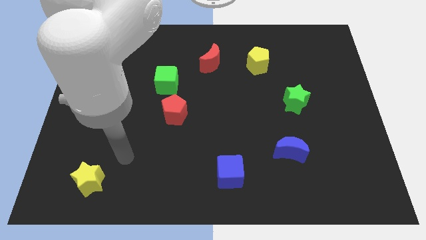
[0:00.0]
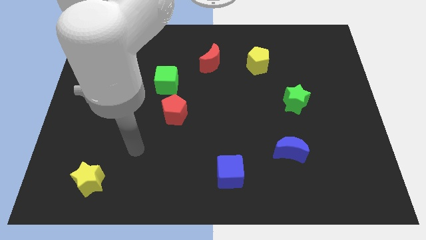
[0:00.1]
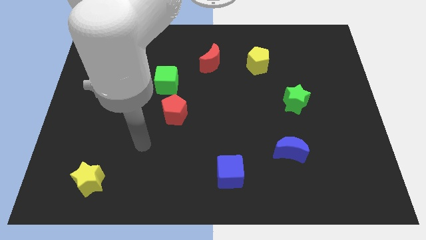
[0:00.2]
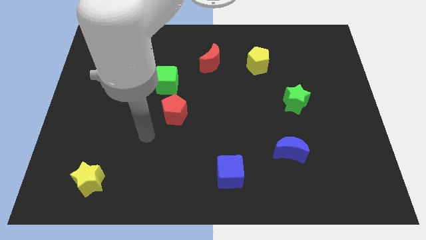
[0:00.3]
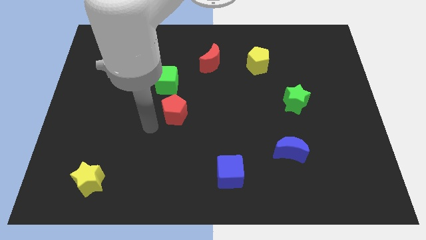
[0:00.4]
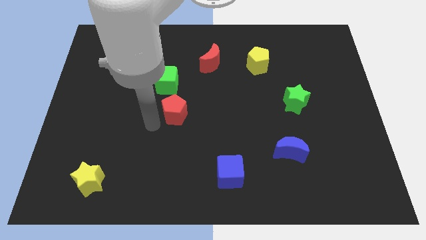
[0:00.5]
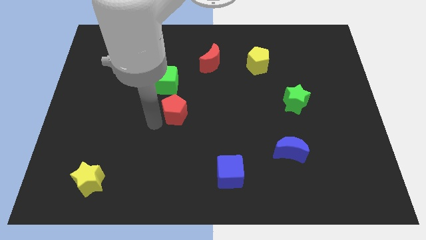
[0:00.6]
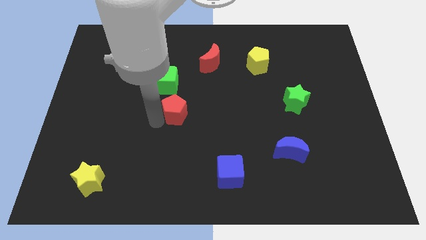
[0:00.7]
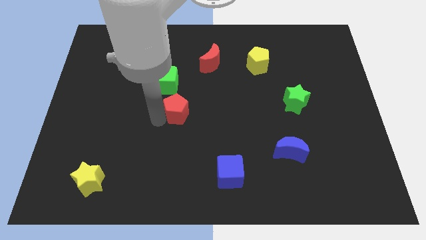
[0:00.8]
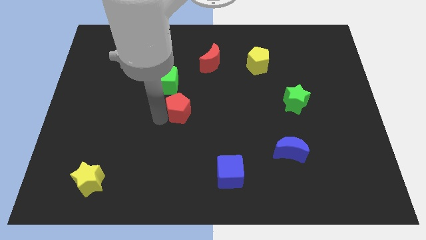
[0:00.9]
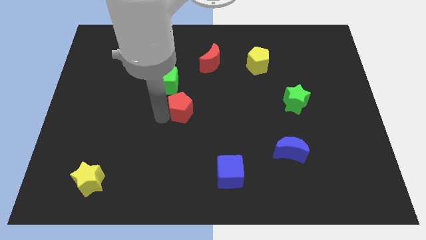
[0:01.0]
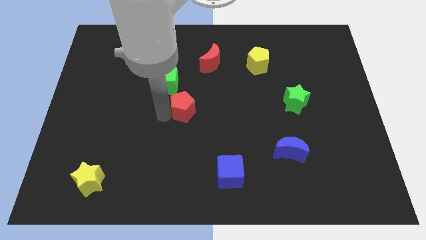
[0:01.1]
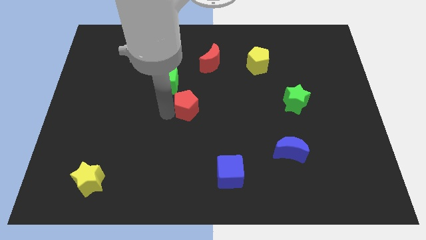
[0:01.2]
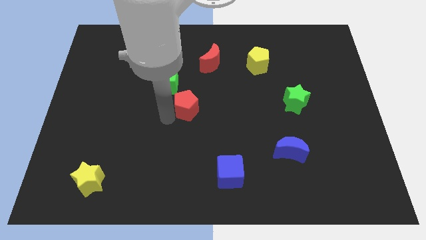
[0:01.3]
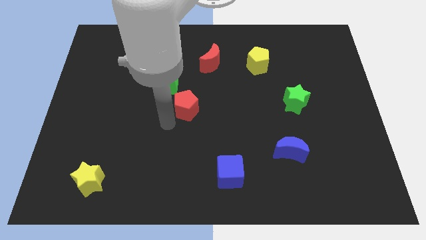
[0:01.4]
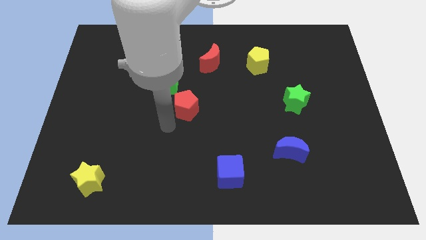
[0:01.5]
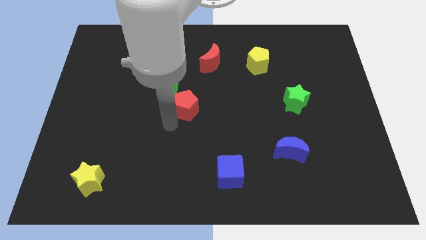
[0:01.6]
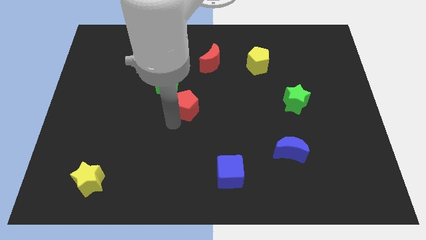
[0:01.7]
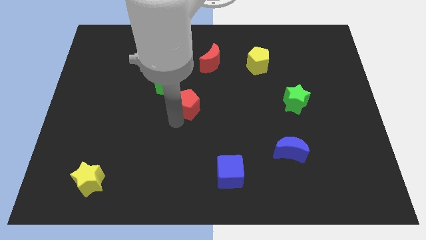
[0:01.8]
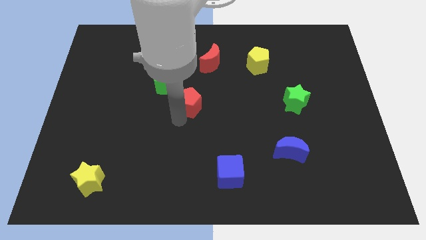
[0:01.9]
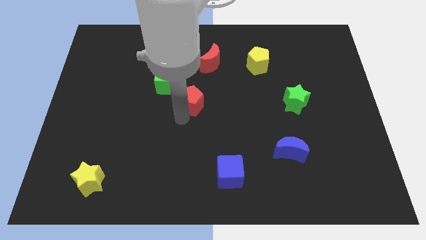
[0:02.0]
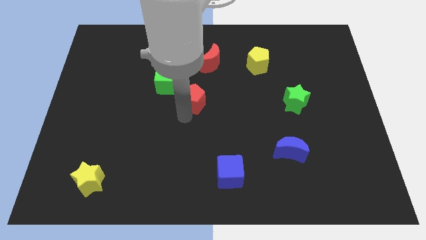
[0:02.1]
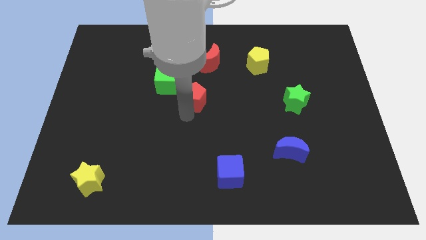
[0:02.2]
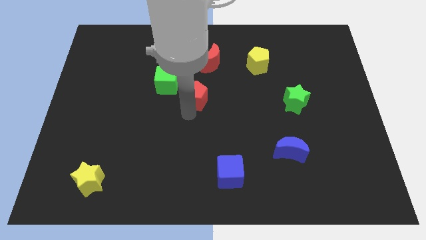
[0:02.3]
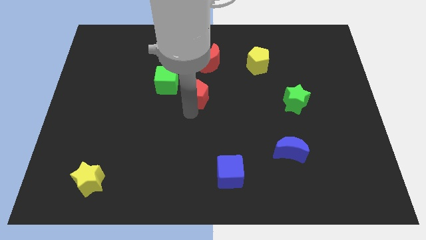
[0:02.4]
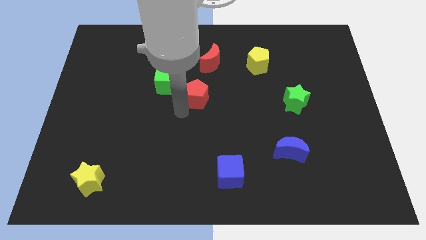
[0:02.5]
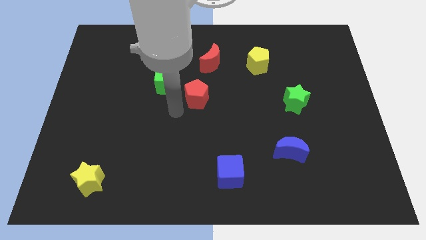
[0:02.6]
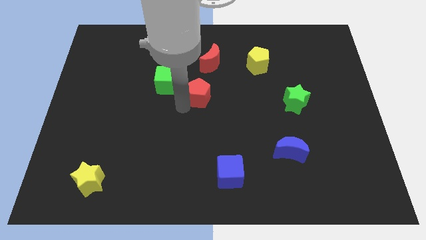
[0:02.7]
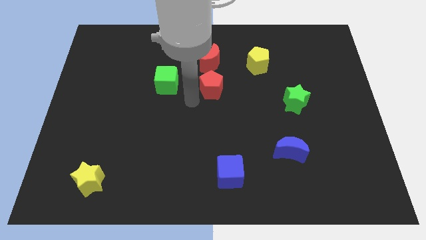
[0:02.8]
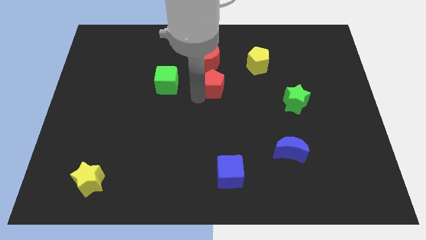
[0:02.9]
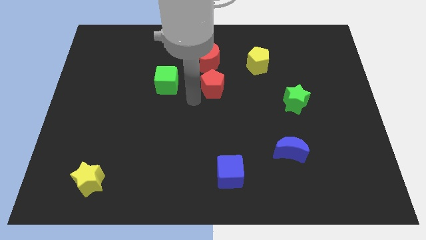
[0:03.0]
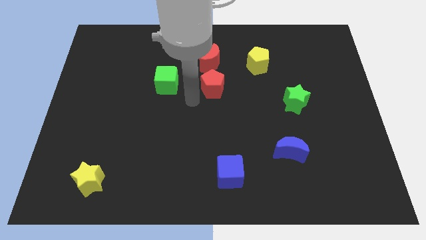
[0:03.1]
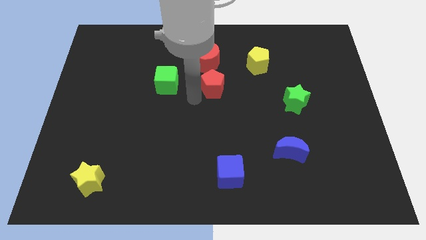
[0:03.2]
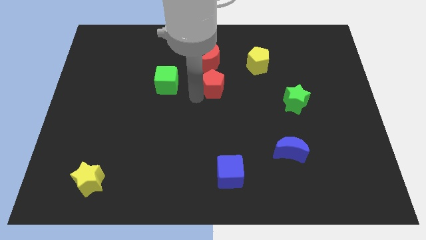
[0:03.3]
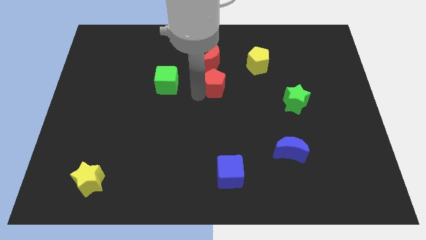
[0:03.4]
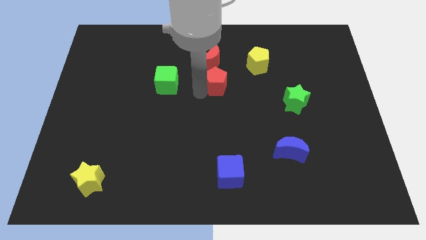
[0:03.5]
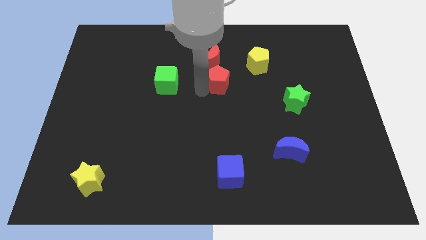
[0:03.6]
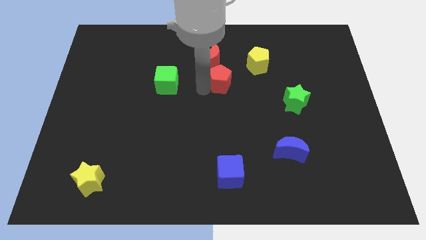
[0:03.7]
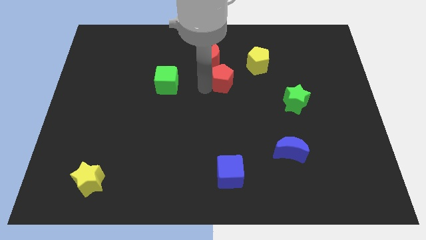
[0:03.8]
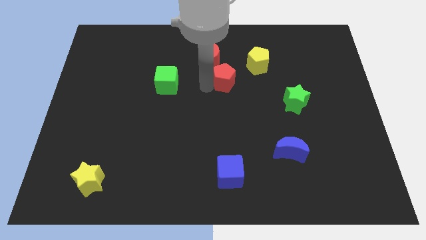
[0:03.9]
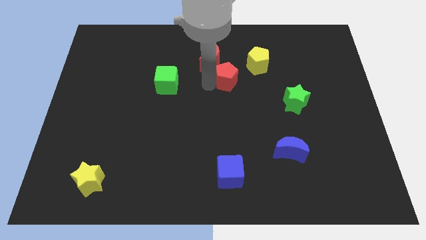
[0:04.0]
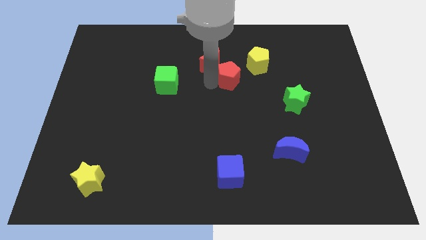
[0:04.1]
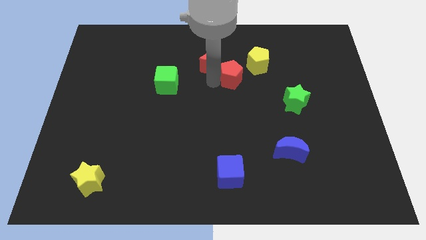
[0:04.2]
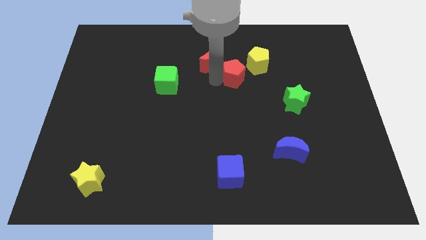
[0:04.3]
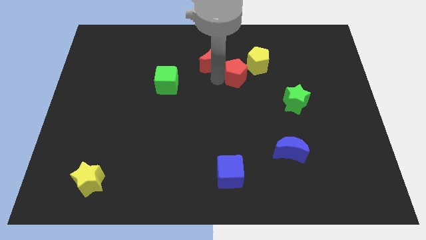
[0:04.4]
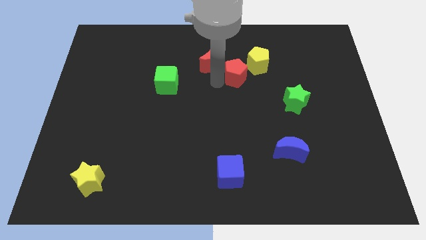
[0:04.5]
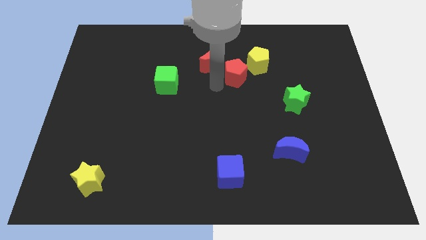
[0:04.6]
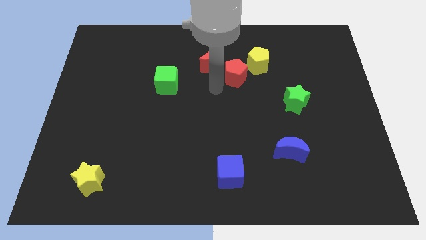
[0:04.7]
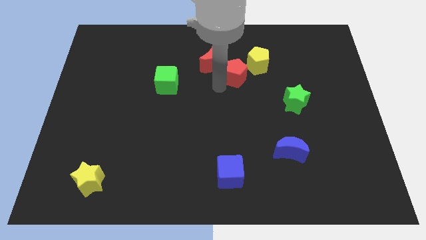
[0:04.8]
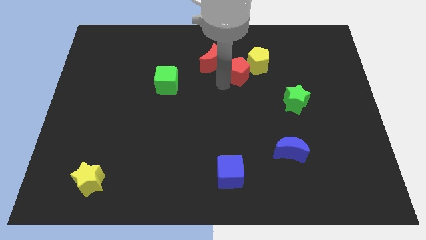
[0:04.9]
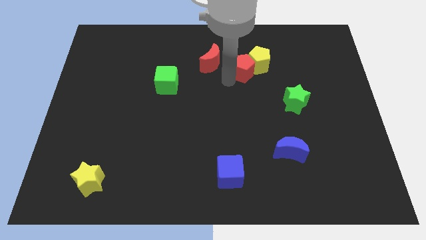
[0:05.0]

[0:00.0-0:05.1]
slide the red pentagon close to the yellow pentagon

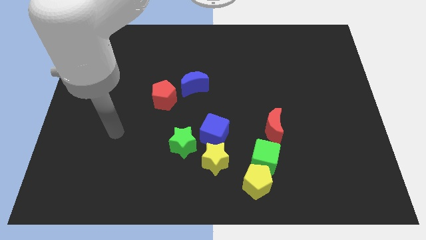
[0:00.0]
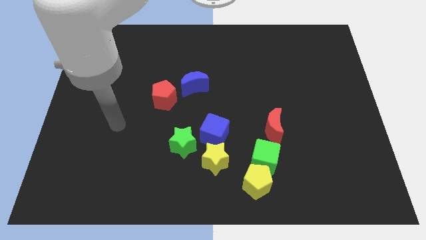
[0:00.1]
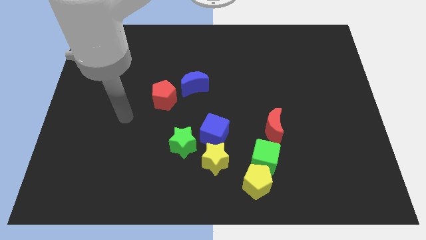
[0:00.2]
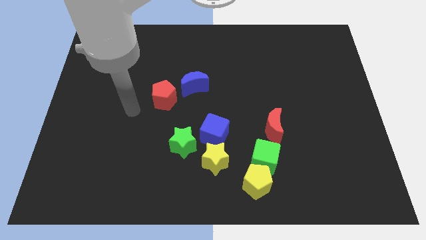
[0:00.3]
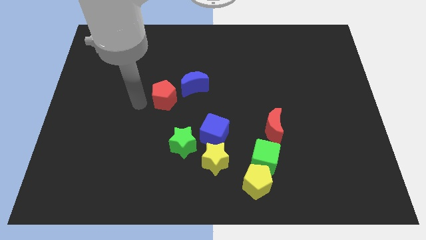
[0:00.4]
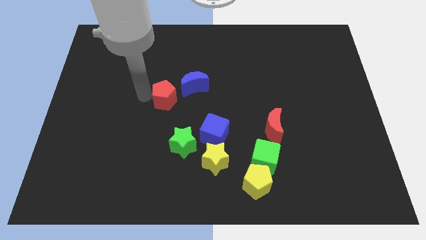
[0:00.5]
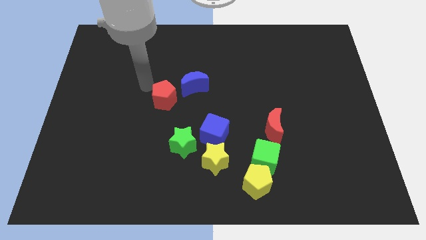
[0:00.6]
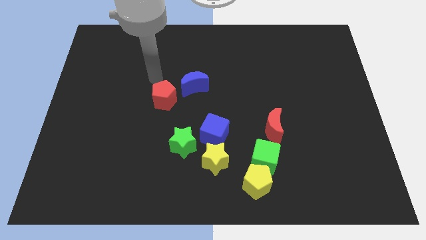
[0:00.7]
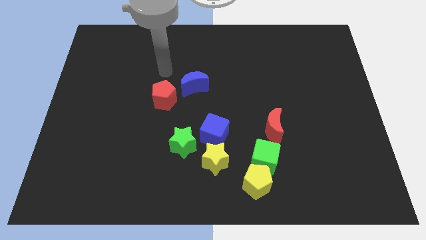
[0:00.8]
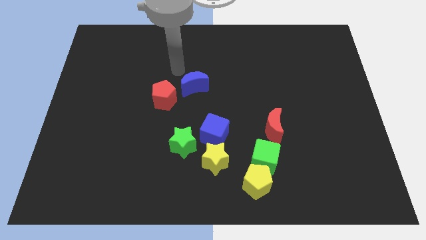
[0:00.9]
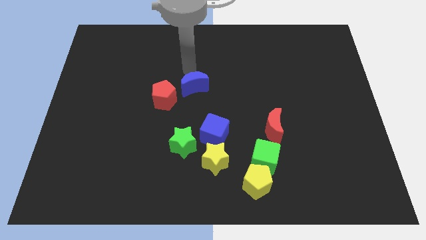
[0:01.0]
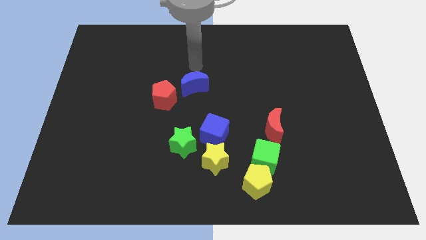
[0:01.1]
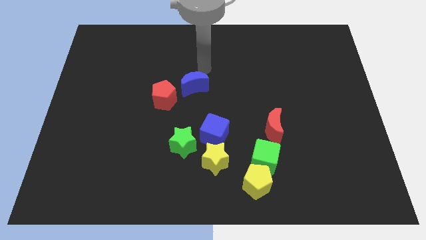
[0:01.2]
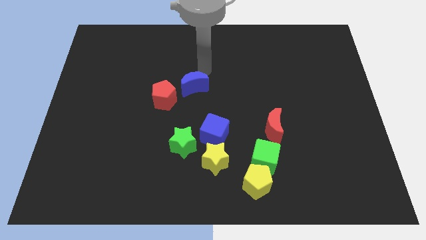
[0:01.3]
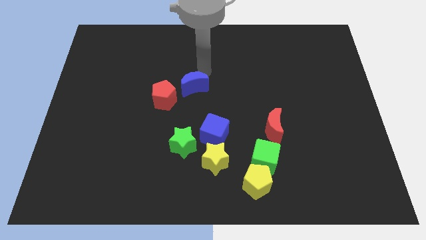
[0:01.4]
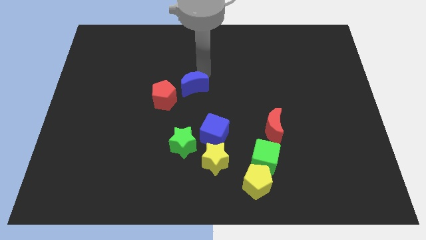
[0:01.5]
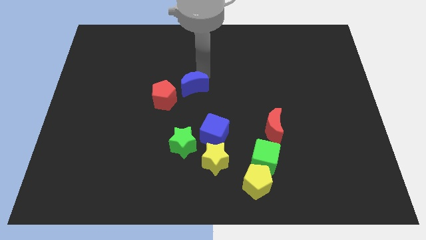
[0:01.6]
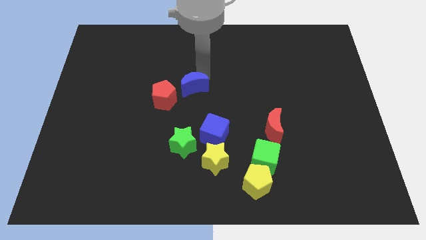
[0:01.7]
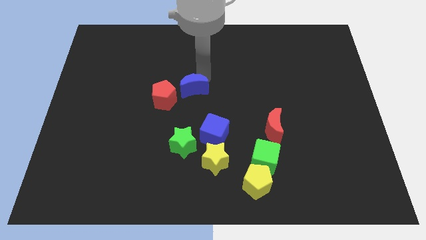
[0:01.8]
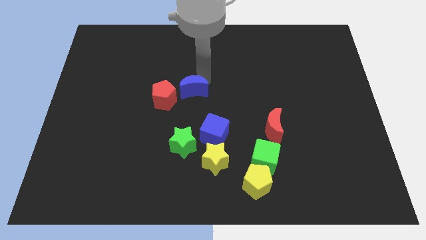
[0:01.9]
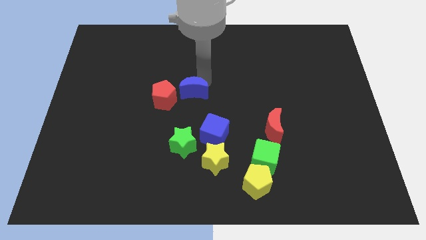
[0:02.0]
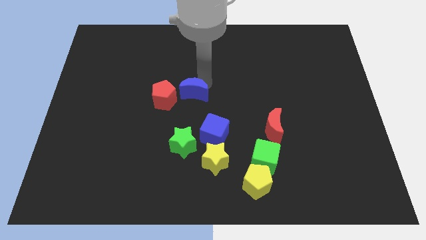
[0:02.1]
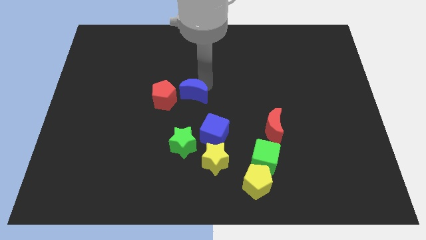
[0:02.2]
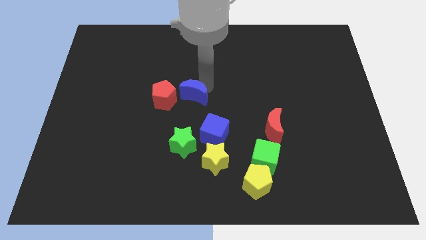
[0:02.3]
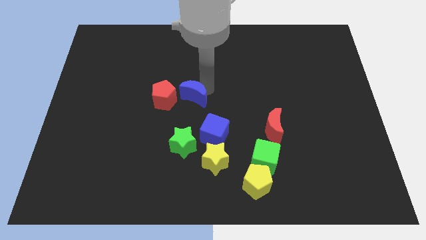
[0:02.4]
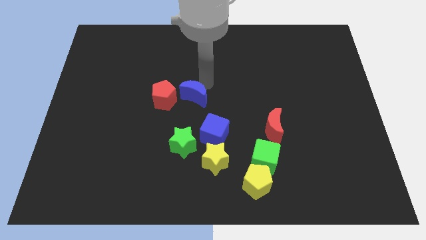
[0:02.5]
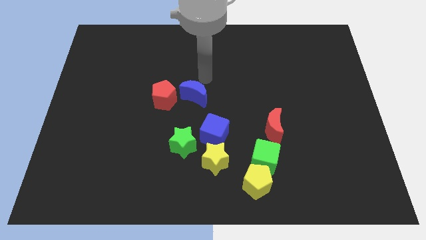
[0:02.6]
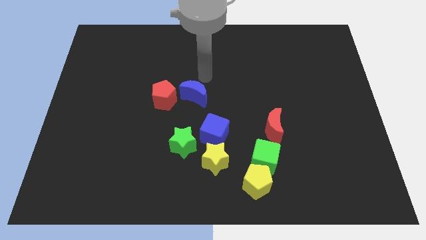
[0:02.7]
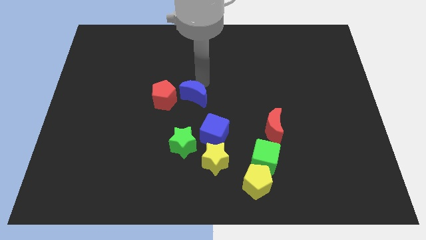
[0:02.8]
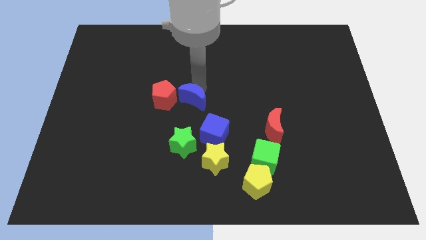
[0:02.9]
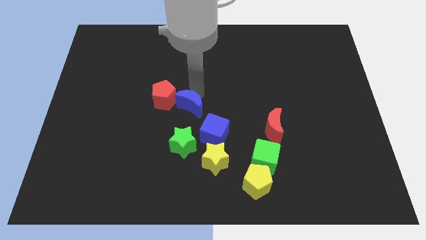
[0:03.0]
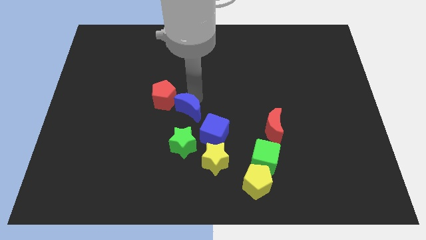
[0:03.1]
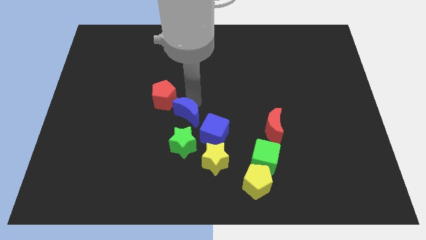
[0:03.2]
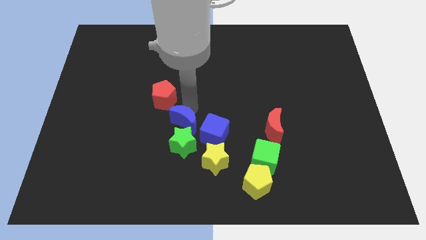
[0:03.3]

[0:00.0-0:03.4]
slide the blue moon towards the green star
